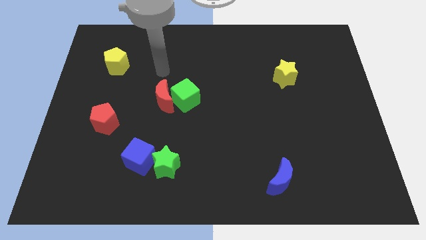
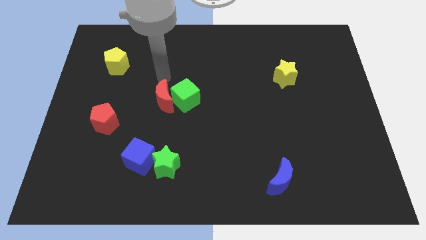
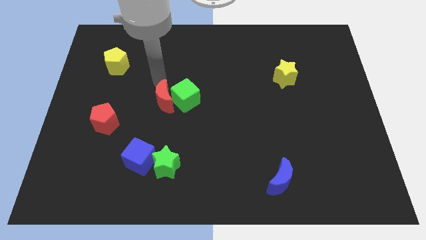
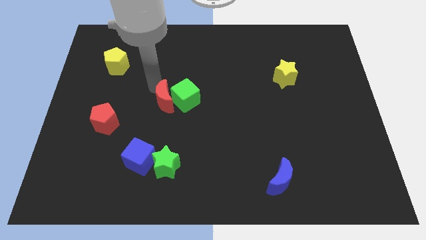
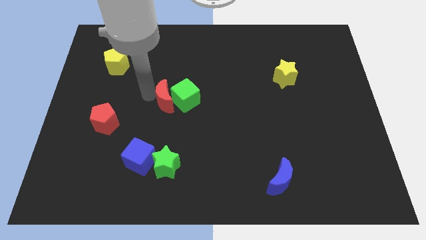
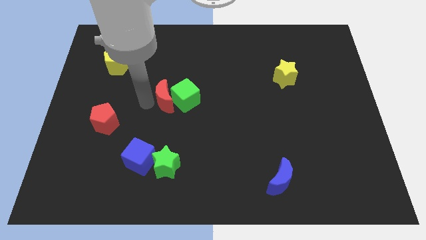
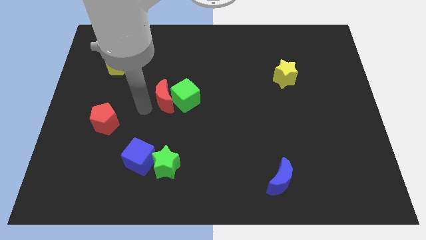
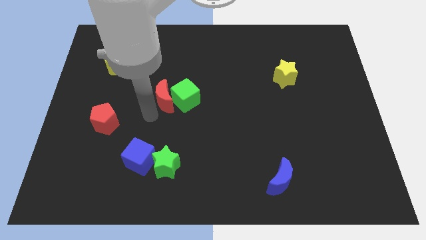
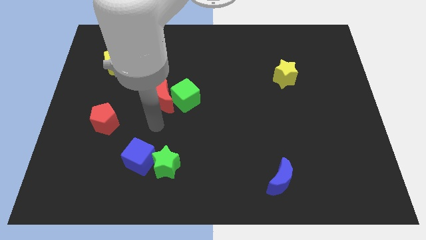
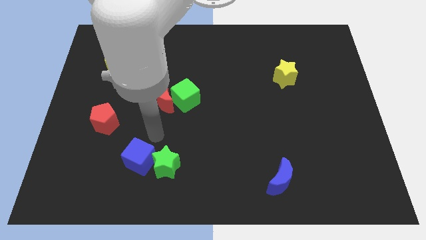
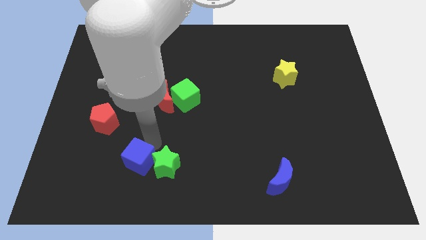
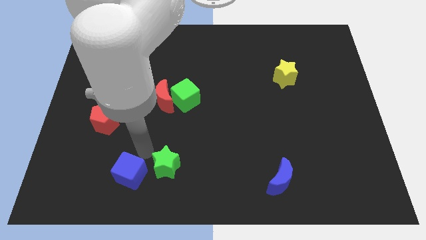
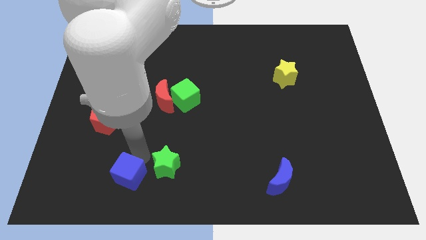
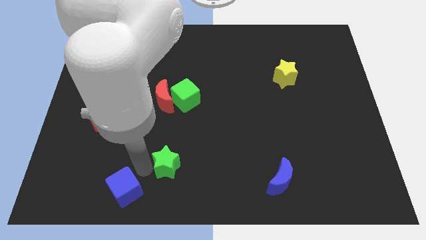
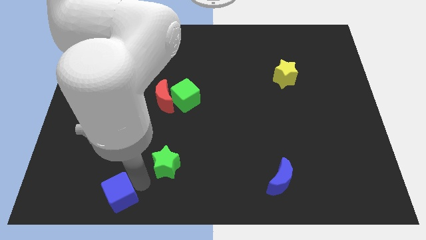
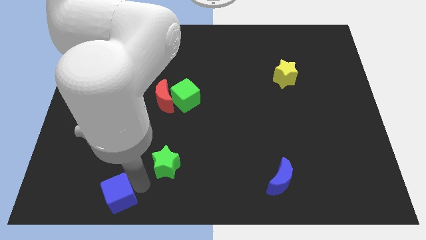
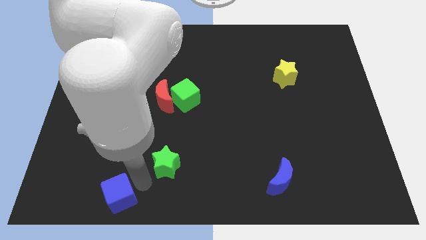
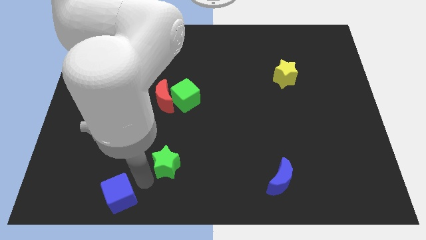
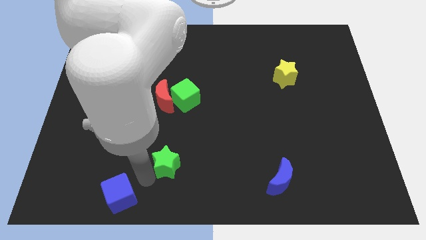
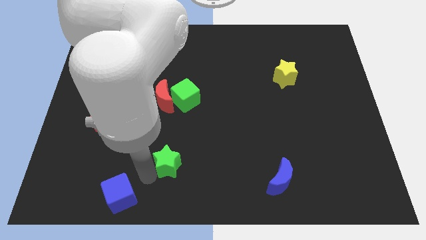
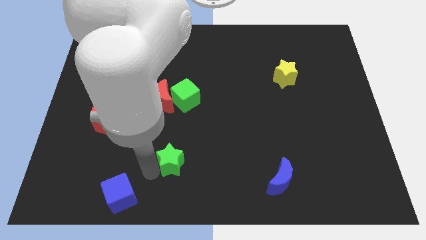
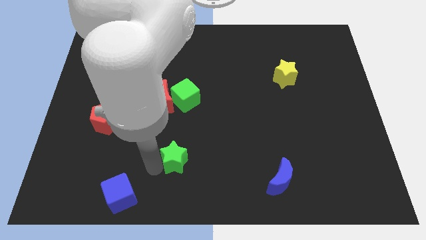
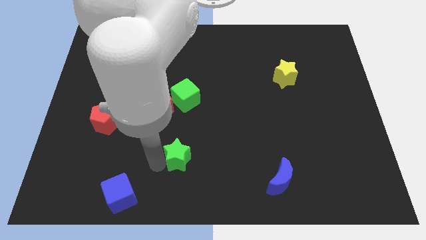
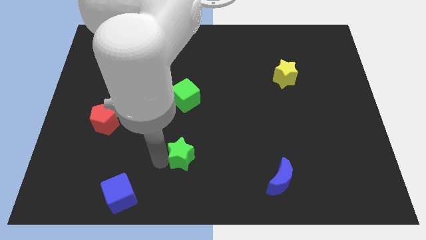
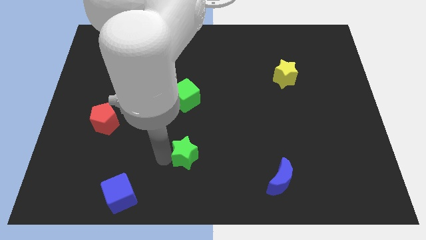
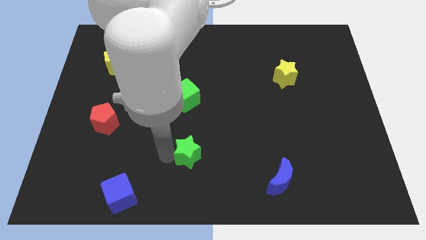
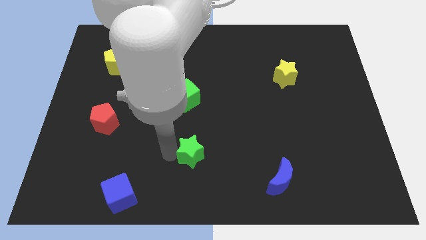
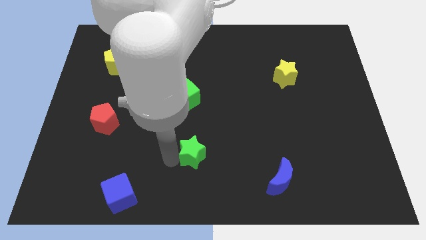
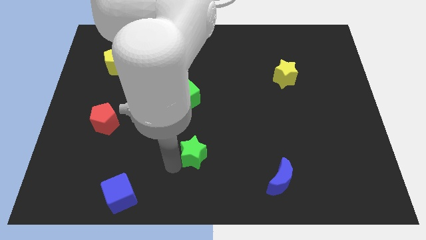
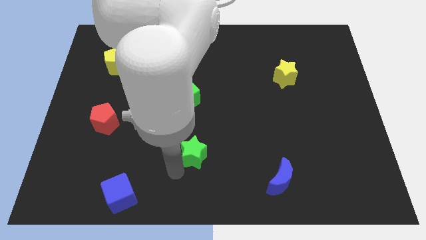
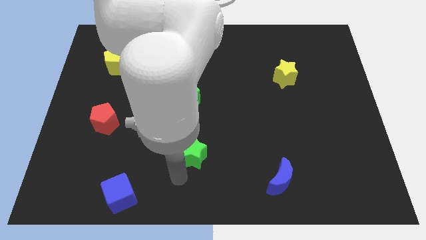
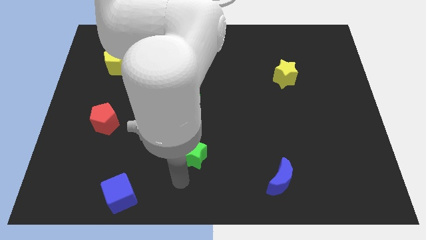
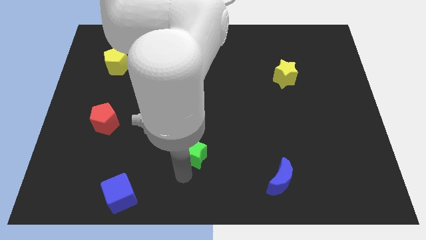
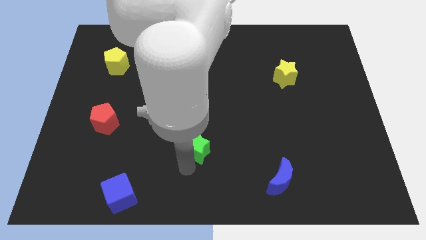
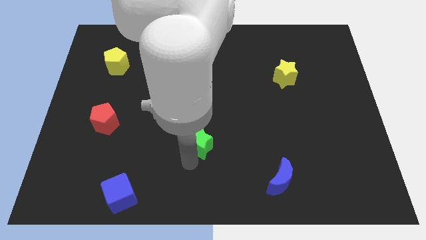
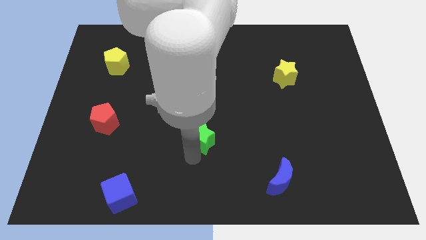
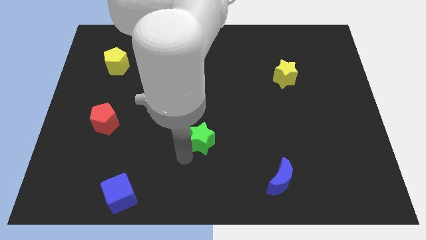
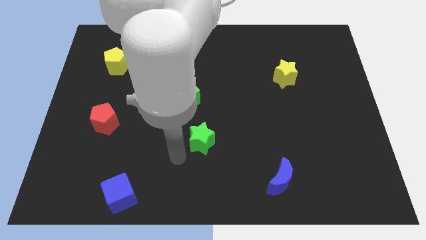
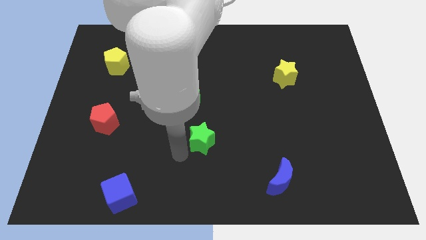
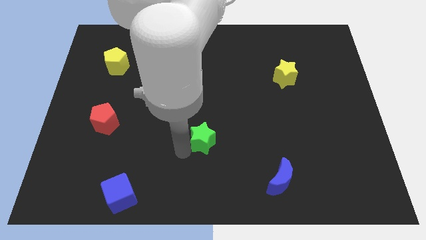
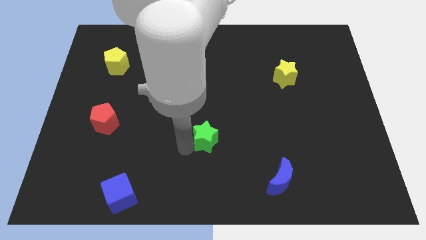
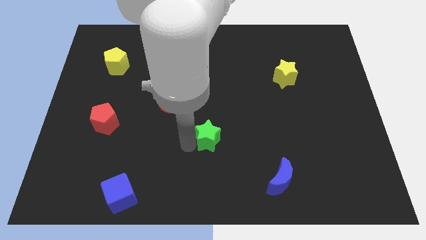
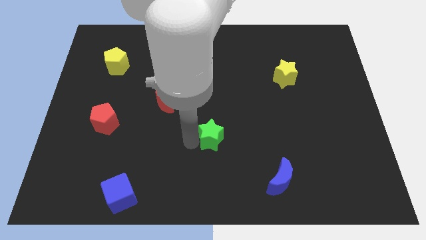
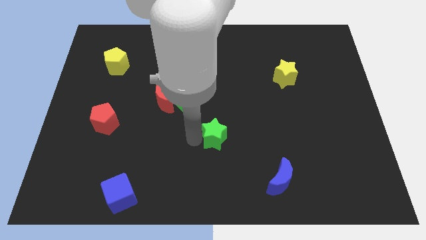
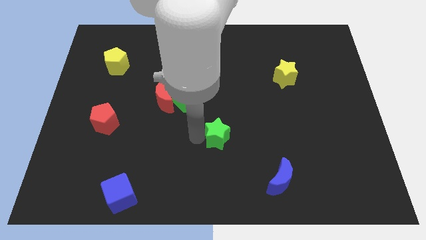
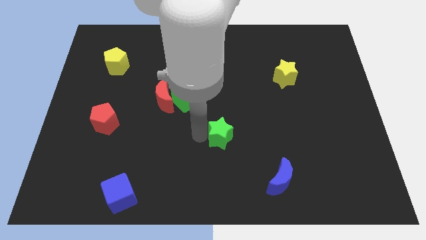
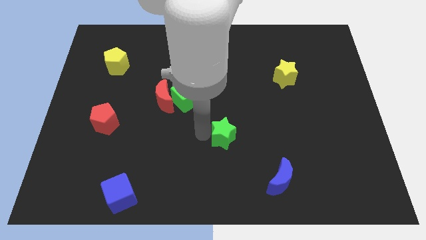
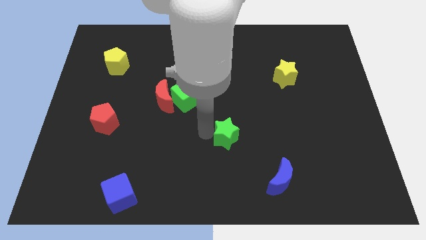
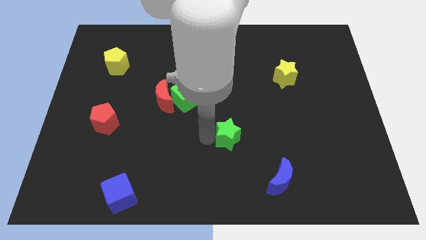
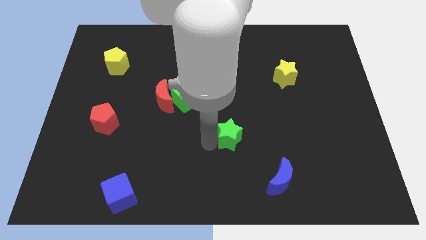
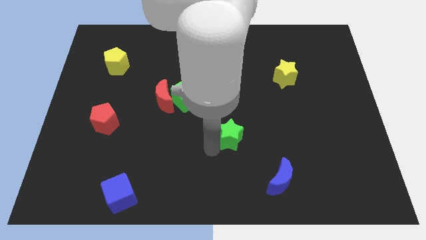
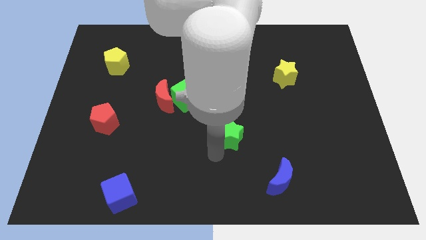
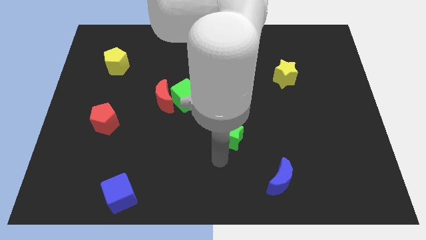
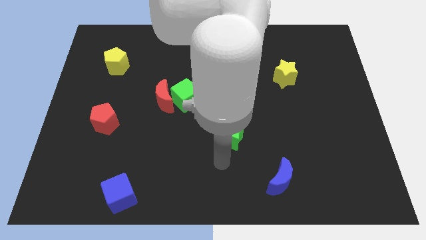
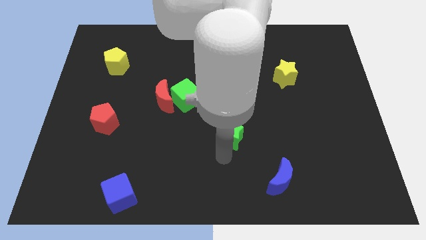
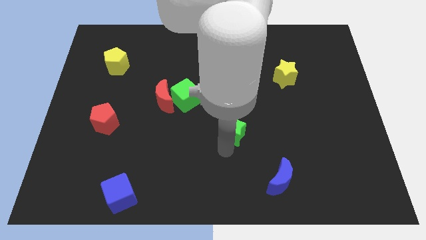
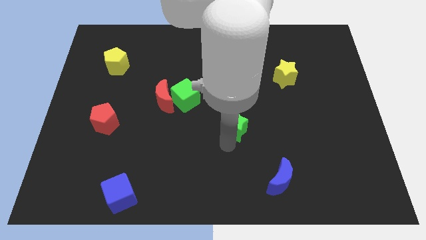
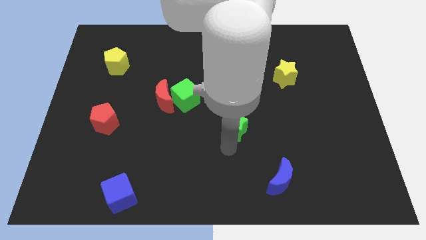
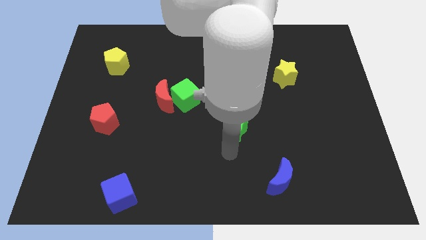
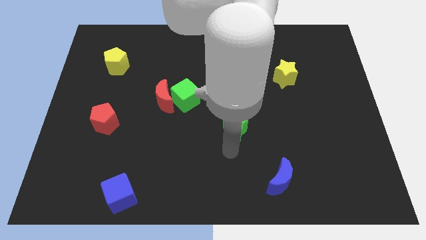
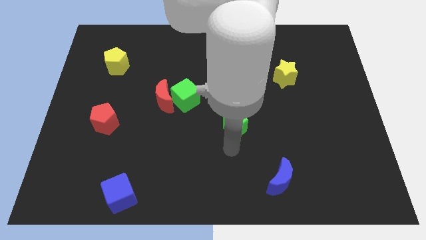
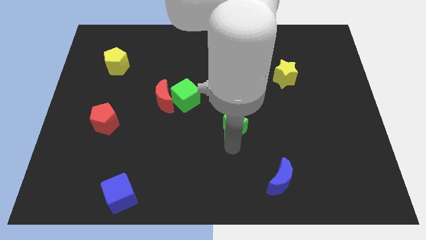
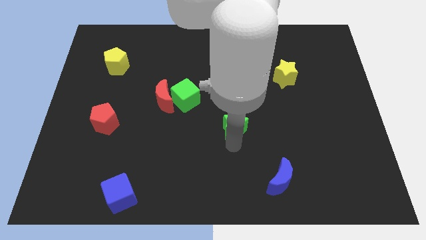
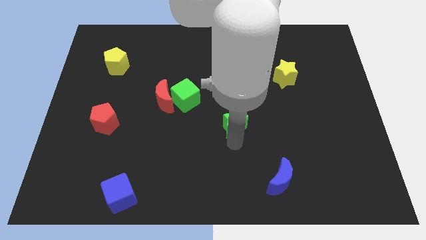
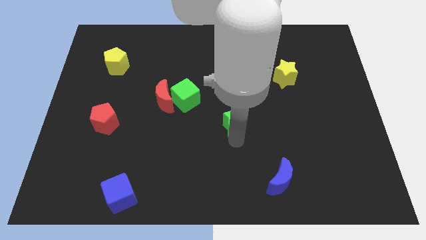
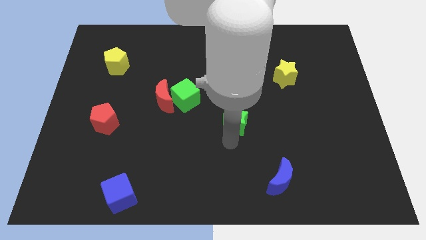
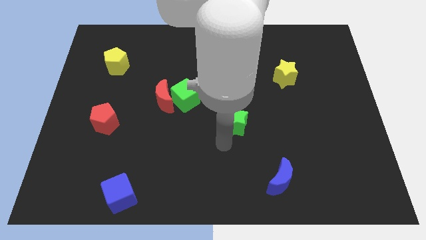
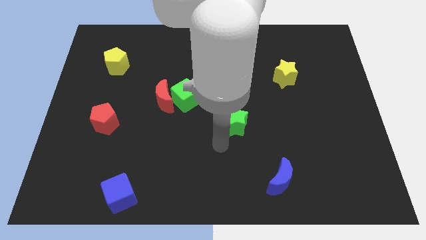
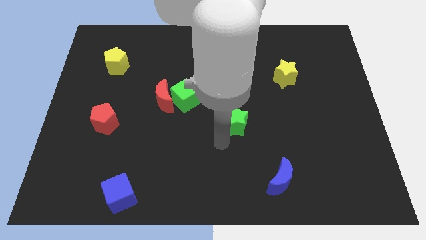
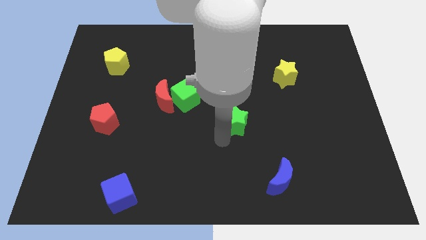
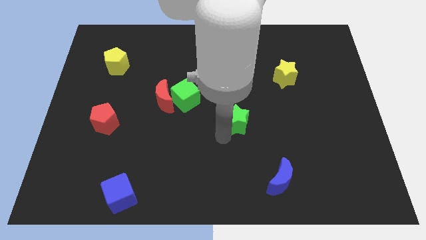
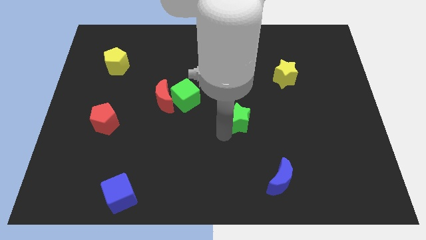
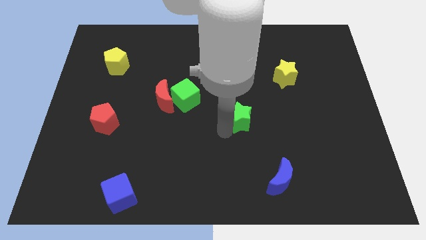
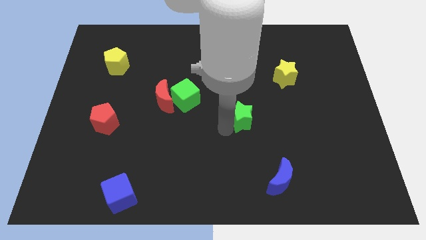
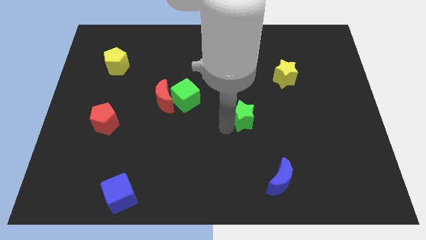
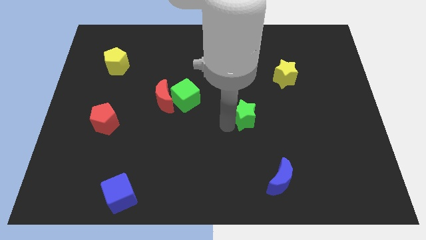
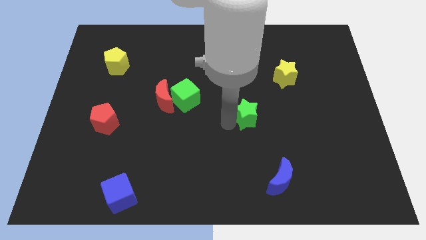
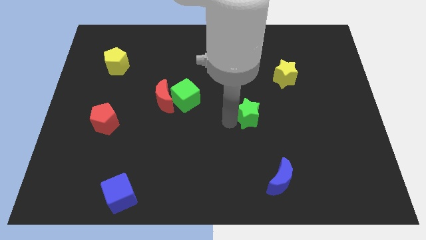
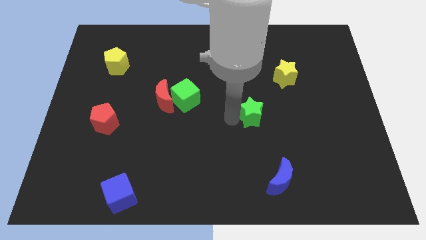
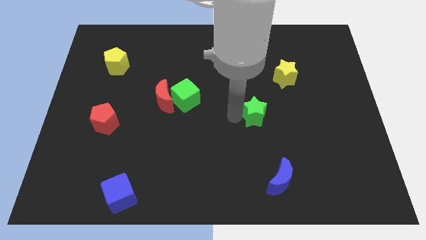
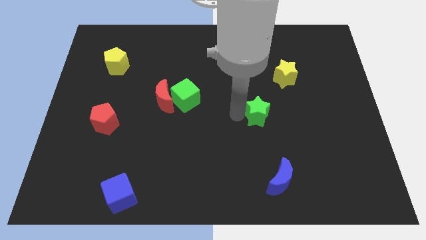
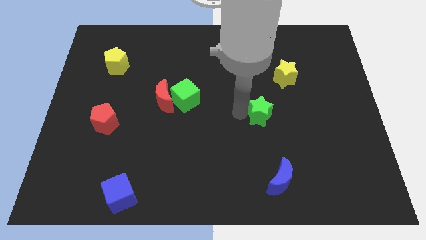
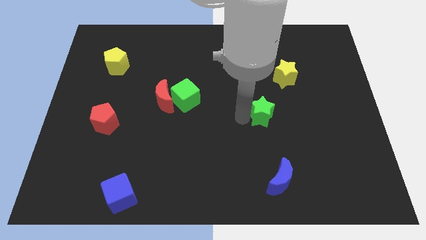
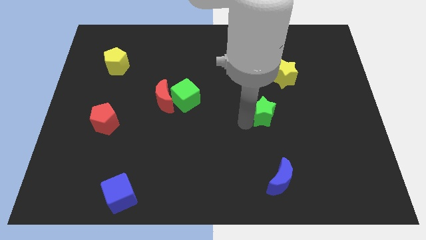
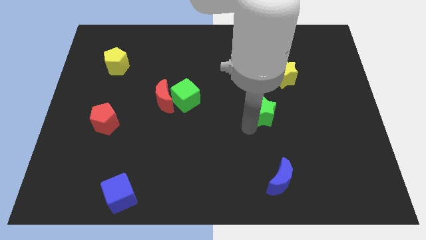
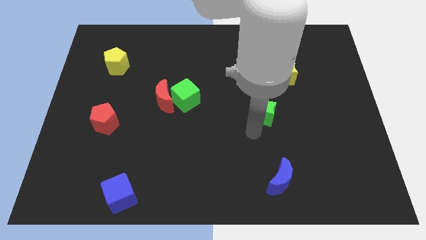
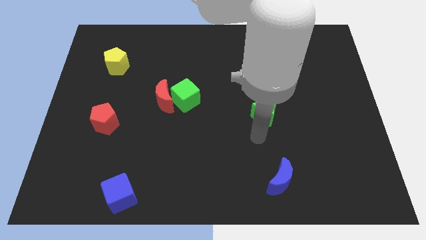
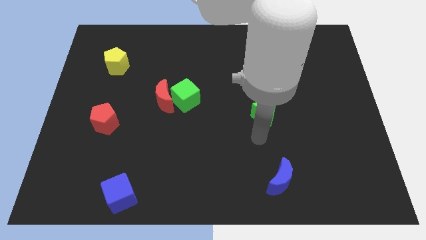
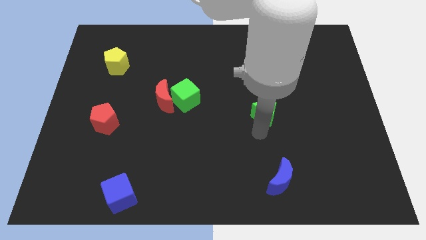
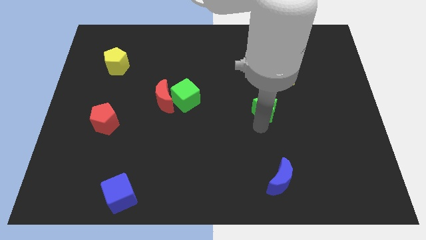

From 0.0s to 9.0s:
push the green star to the bottom left side of the yellow star
